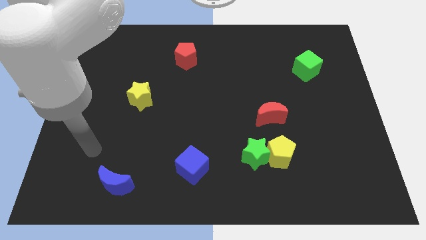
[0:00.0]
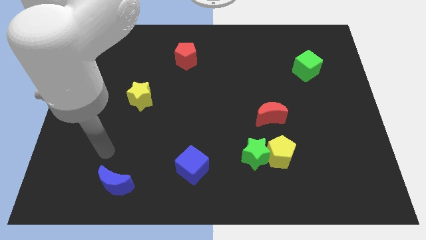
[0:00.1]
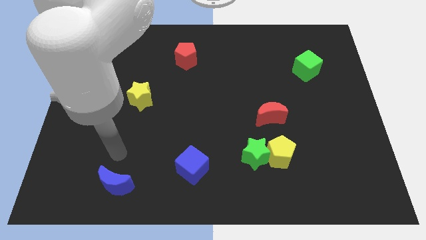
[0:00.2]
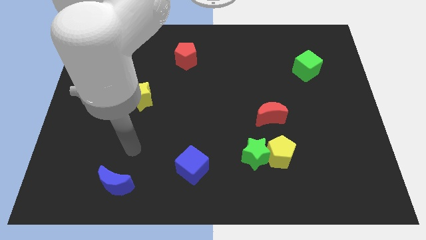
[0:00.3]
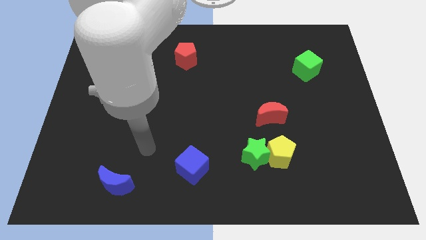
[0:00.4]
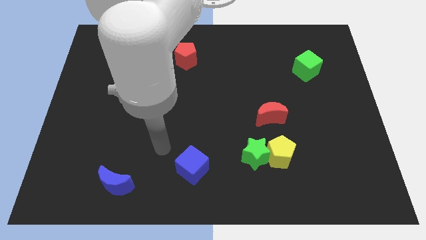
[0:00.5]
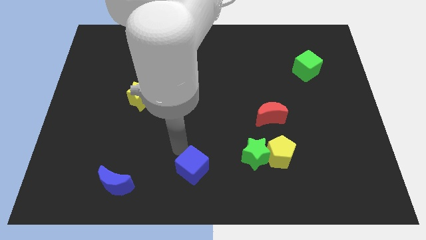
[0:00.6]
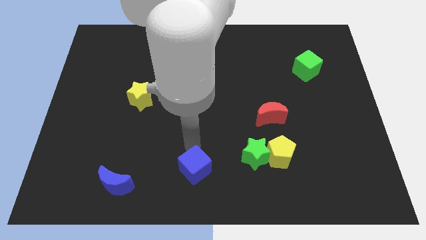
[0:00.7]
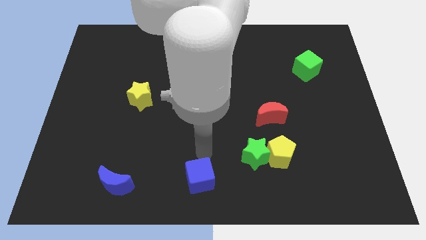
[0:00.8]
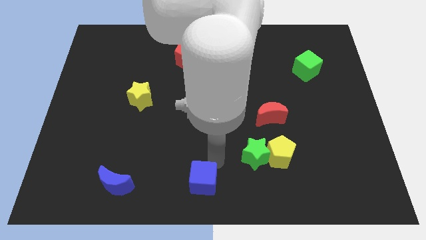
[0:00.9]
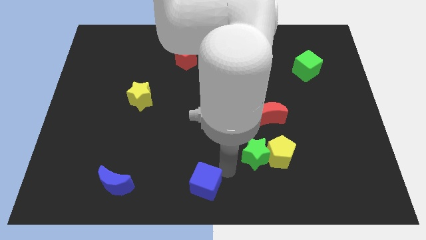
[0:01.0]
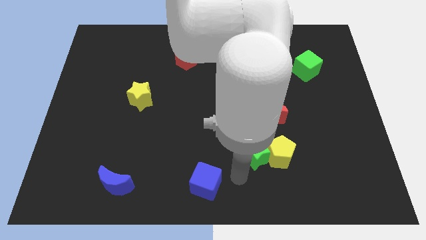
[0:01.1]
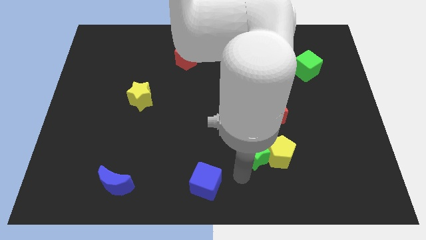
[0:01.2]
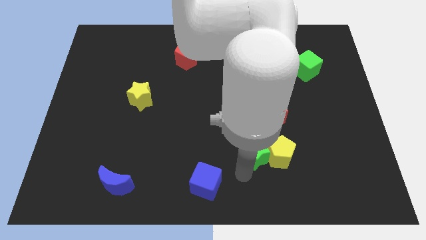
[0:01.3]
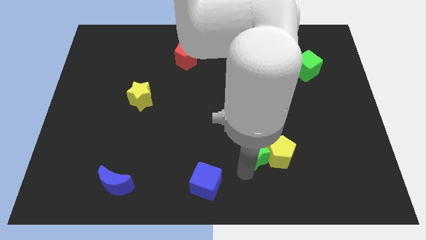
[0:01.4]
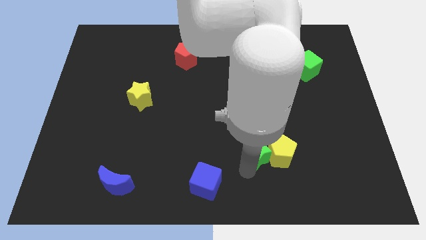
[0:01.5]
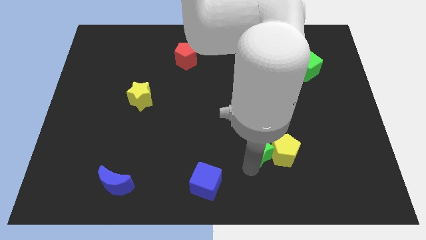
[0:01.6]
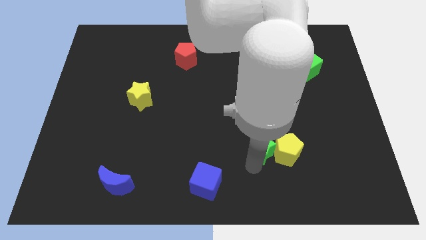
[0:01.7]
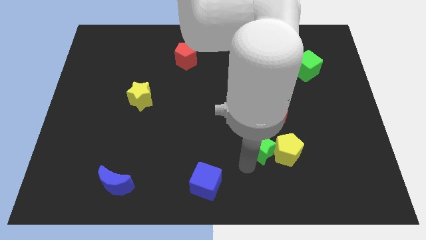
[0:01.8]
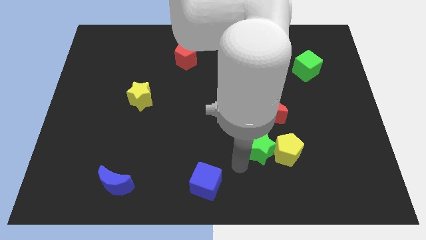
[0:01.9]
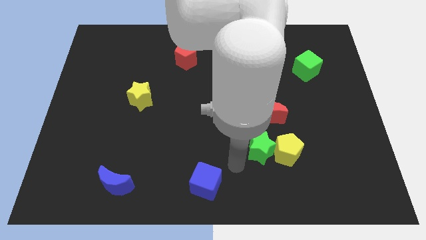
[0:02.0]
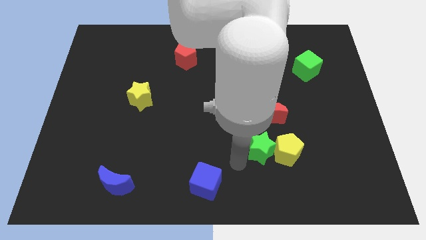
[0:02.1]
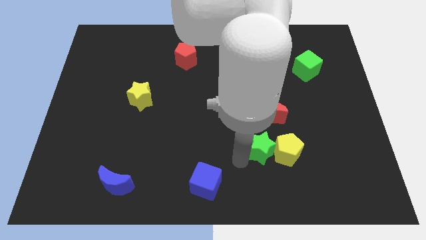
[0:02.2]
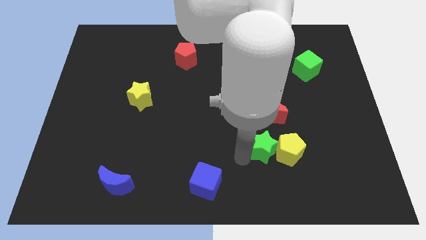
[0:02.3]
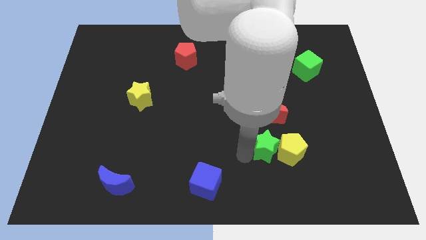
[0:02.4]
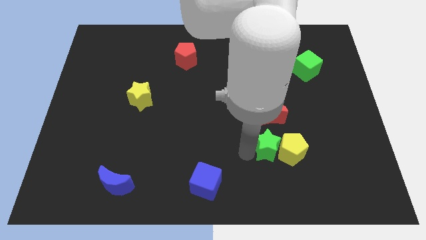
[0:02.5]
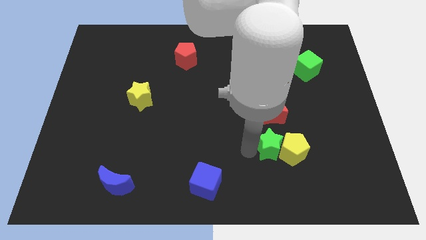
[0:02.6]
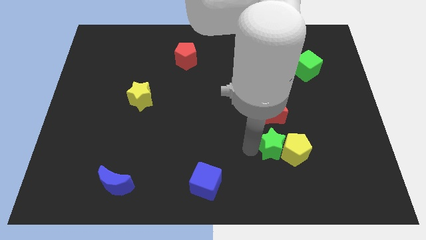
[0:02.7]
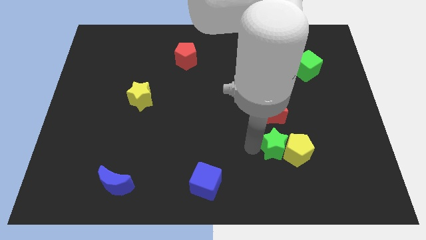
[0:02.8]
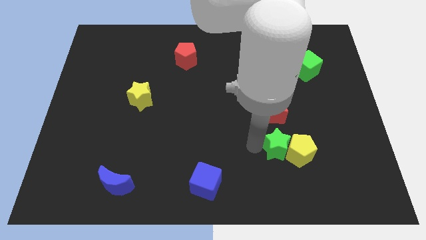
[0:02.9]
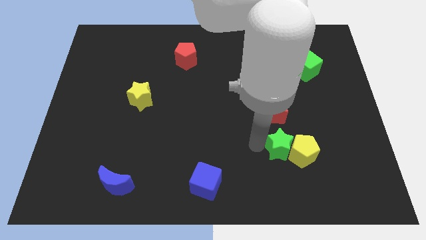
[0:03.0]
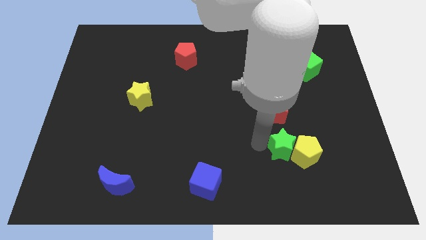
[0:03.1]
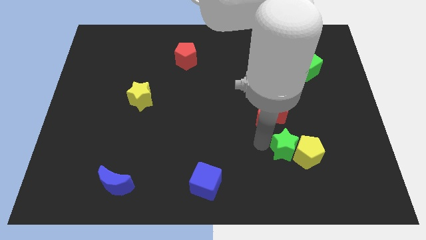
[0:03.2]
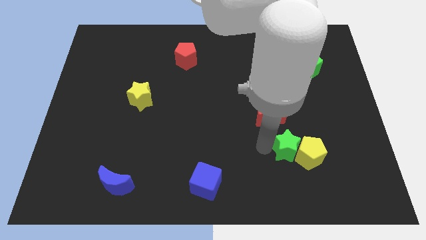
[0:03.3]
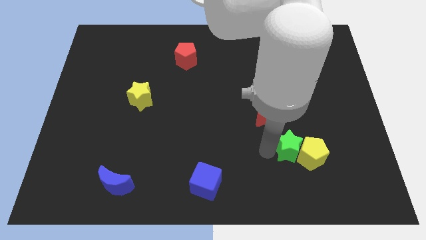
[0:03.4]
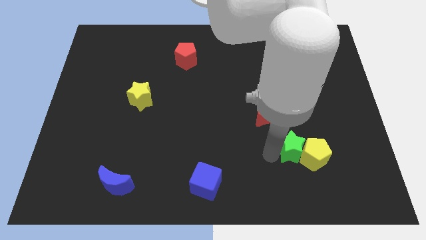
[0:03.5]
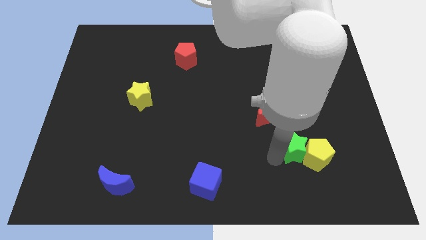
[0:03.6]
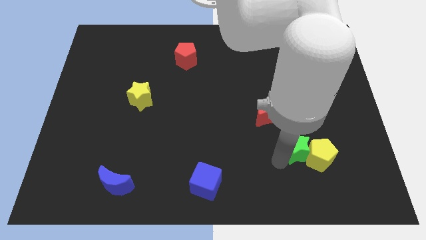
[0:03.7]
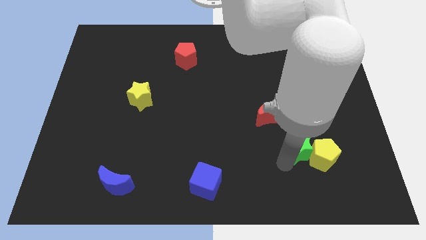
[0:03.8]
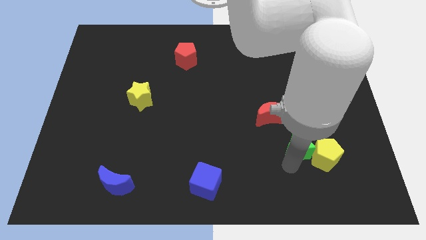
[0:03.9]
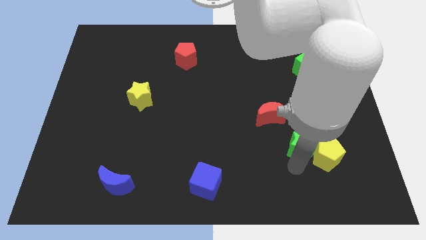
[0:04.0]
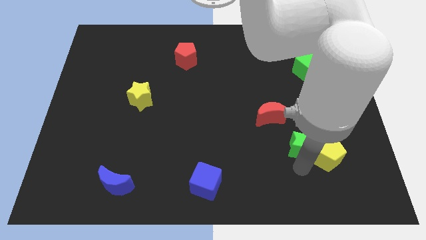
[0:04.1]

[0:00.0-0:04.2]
move the green star diagonally upwards and to the right a little

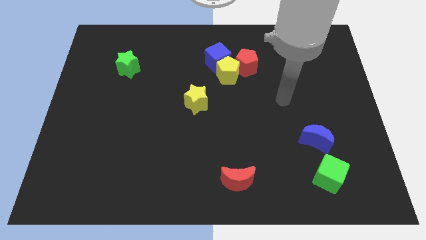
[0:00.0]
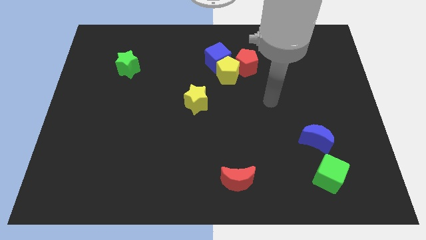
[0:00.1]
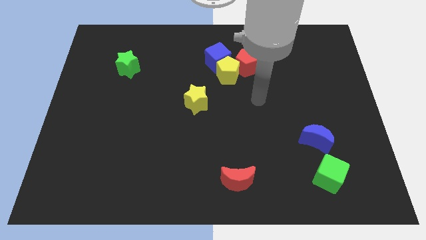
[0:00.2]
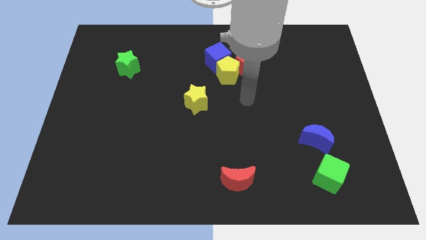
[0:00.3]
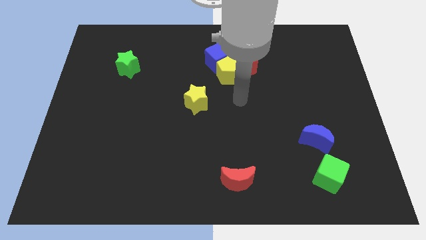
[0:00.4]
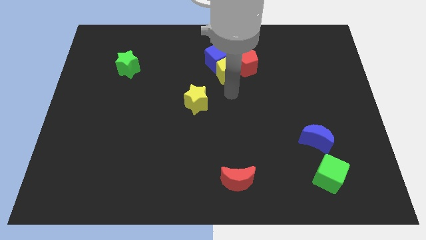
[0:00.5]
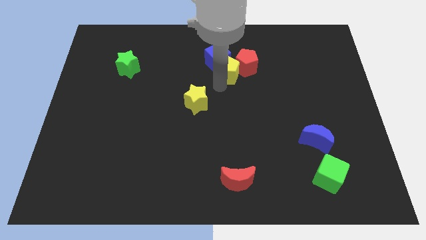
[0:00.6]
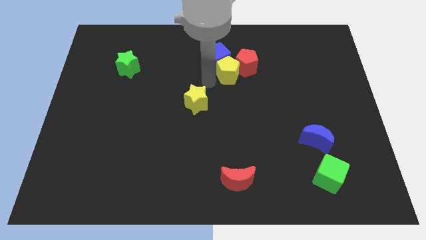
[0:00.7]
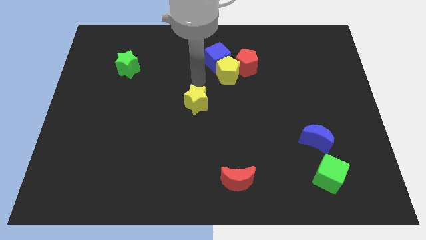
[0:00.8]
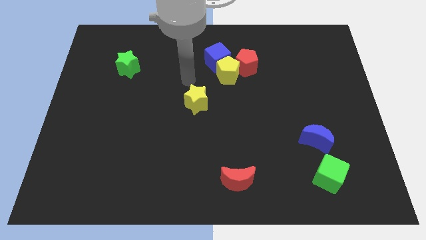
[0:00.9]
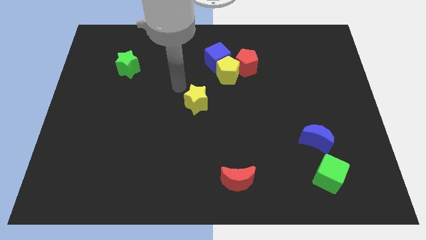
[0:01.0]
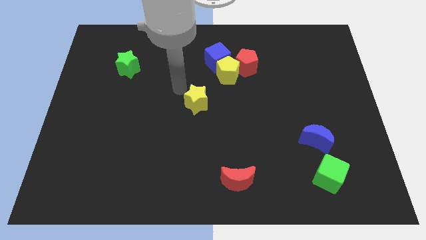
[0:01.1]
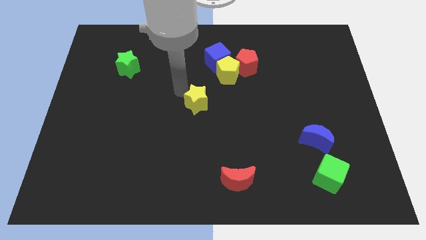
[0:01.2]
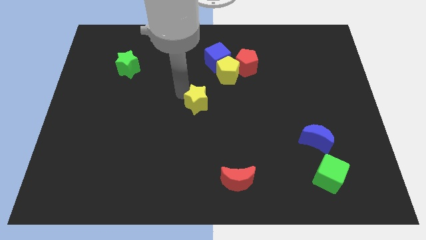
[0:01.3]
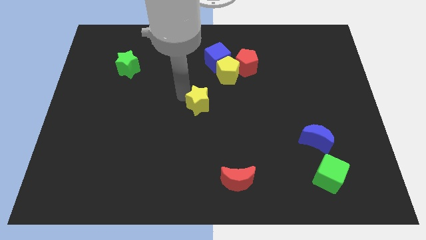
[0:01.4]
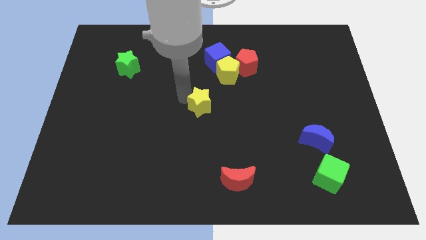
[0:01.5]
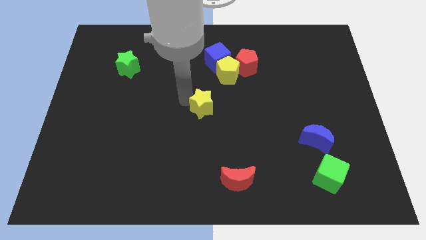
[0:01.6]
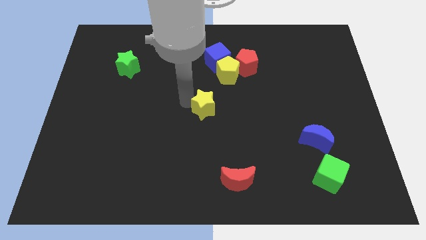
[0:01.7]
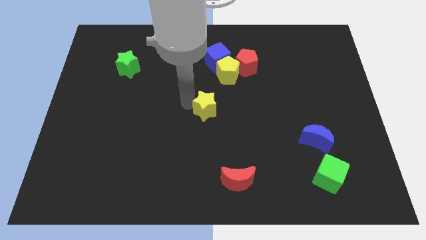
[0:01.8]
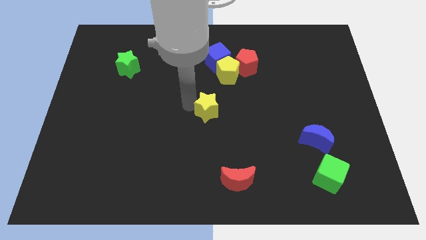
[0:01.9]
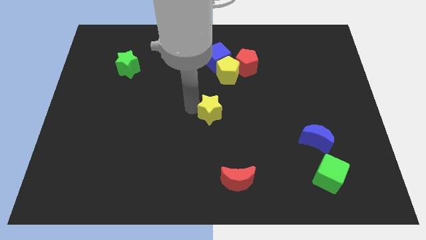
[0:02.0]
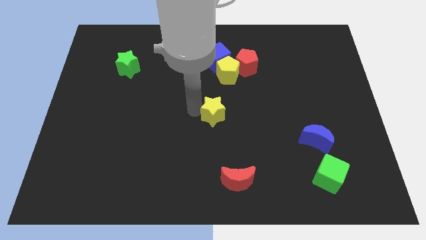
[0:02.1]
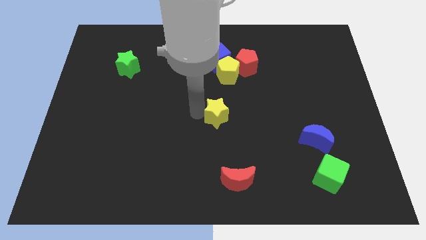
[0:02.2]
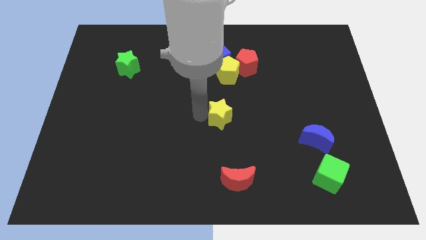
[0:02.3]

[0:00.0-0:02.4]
slide the yellow star downwards and right a little

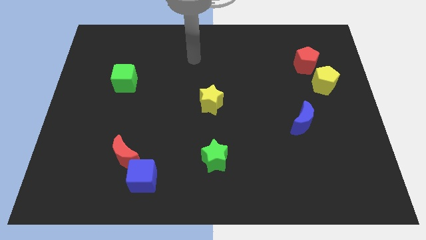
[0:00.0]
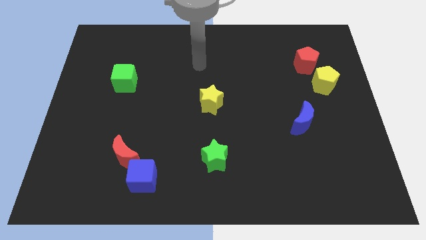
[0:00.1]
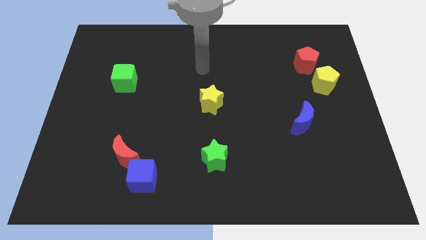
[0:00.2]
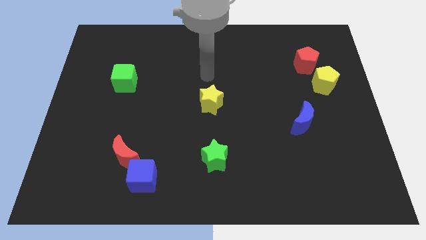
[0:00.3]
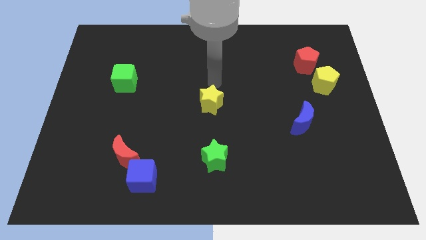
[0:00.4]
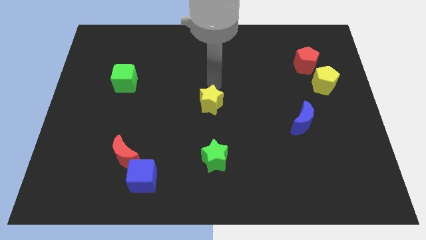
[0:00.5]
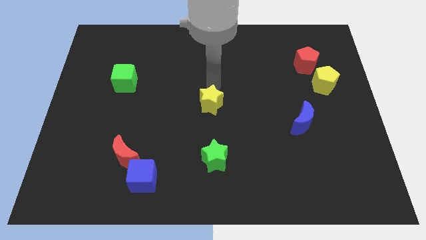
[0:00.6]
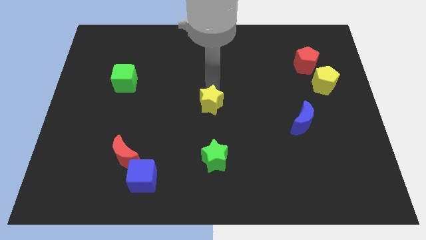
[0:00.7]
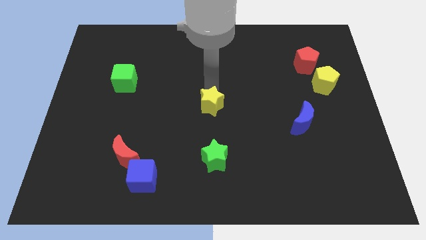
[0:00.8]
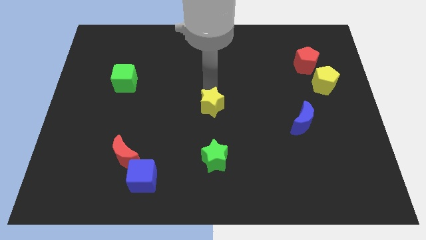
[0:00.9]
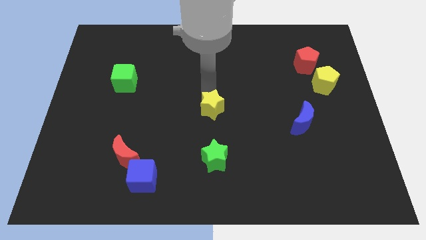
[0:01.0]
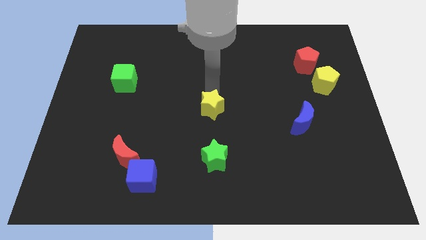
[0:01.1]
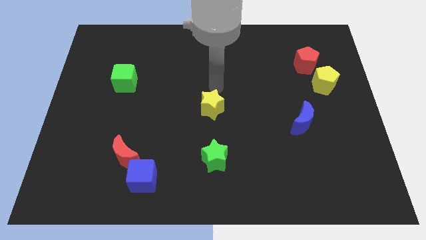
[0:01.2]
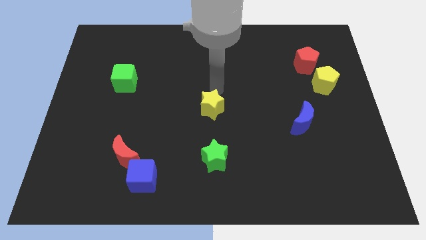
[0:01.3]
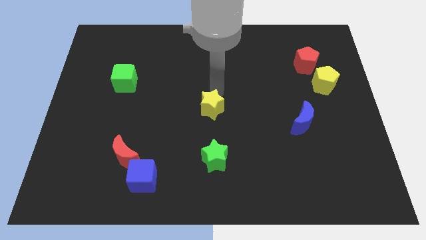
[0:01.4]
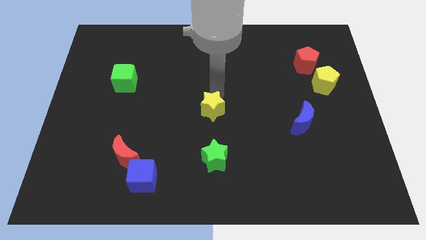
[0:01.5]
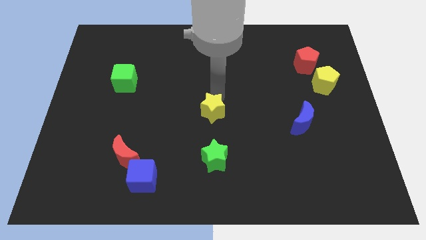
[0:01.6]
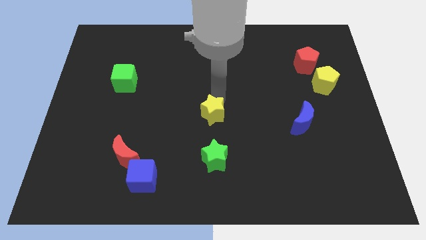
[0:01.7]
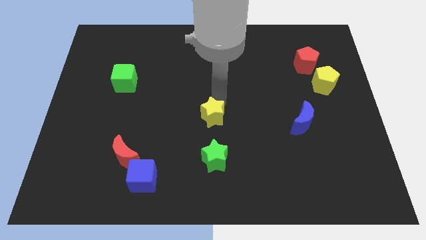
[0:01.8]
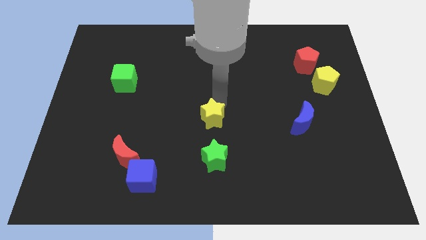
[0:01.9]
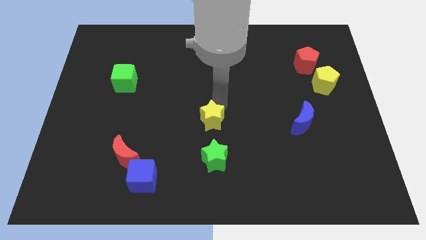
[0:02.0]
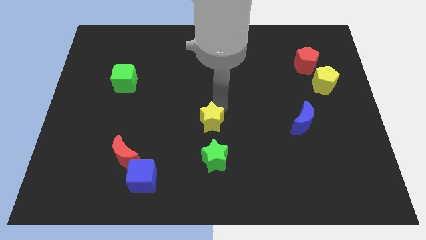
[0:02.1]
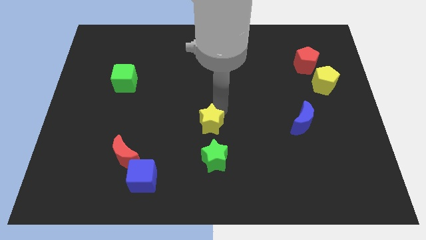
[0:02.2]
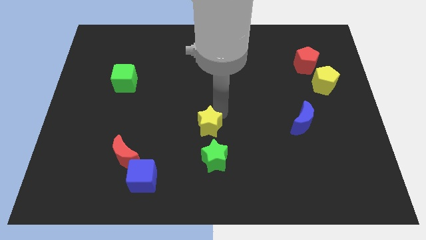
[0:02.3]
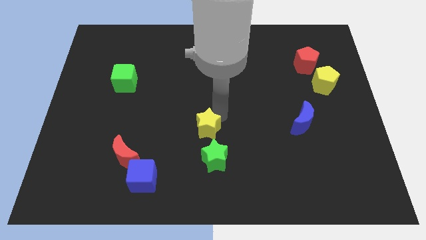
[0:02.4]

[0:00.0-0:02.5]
slide the yellow star a little bit downwards
